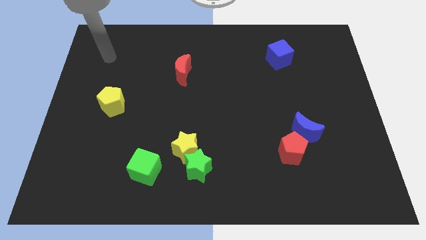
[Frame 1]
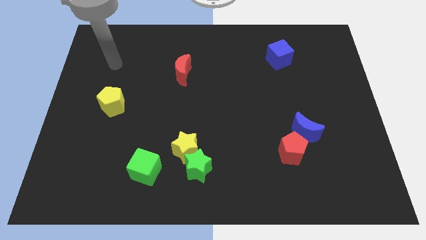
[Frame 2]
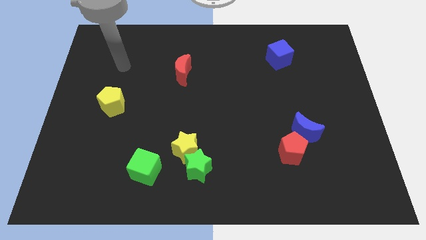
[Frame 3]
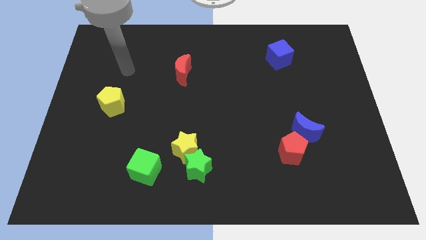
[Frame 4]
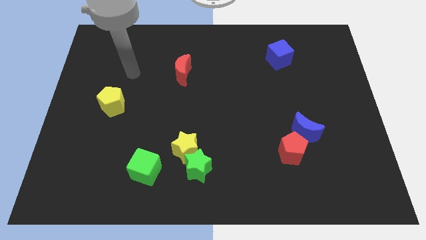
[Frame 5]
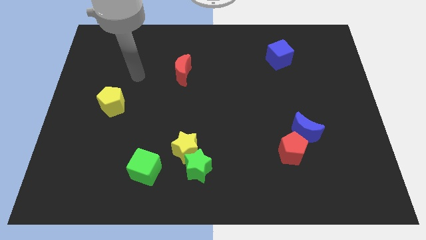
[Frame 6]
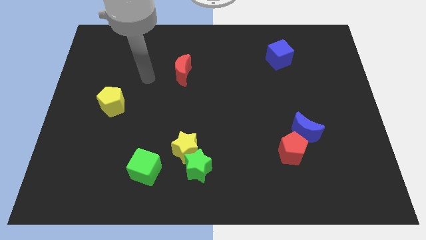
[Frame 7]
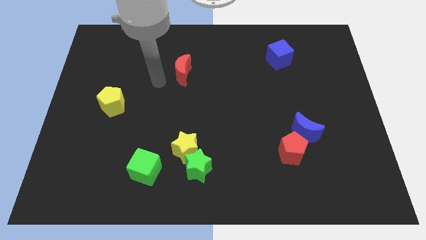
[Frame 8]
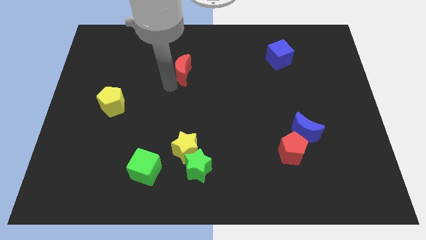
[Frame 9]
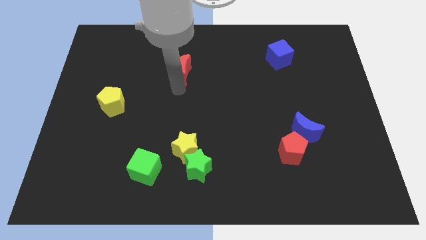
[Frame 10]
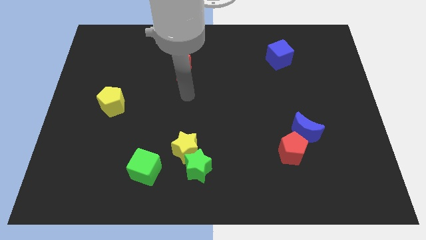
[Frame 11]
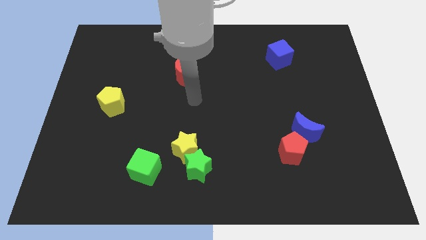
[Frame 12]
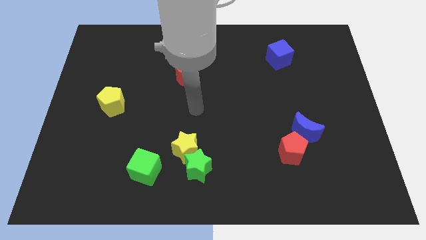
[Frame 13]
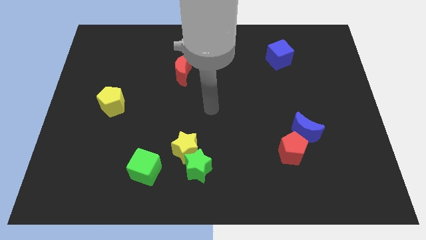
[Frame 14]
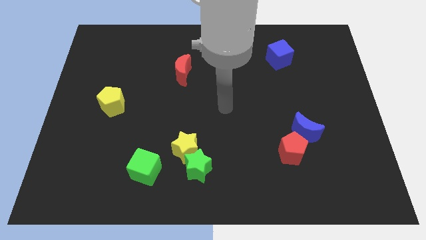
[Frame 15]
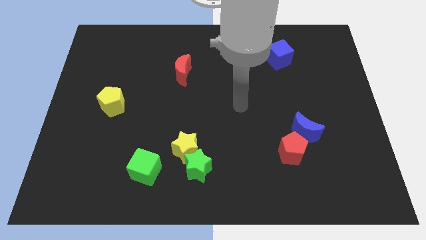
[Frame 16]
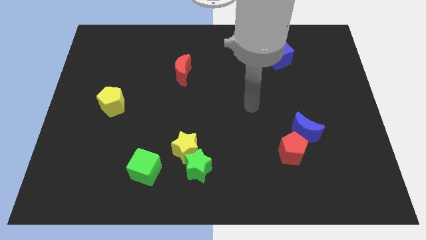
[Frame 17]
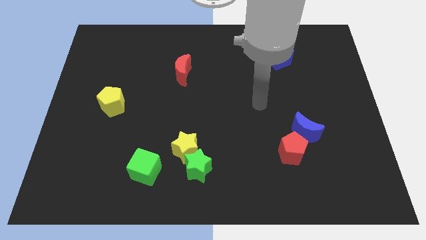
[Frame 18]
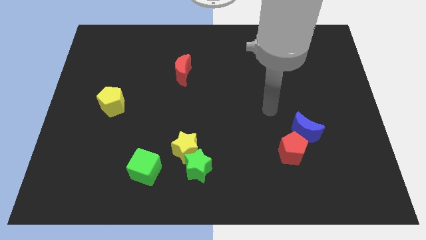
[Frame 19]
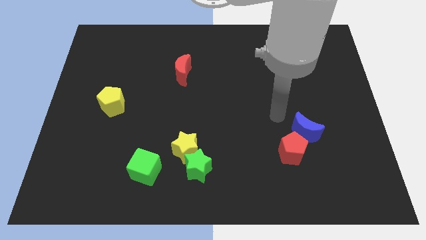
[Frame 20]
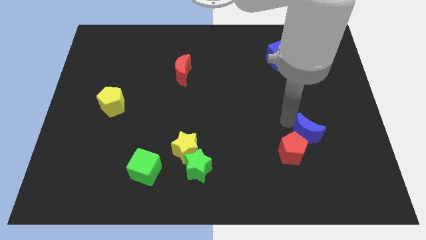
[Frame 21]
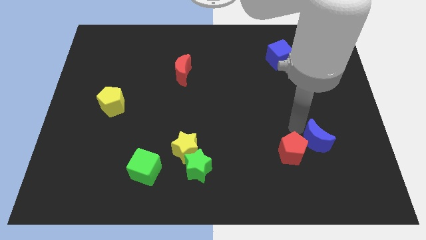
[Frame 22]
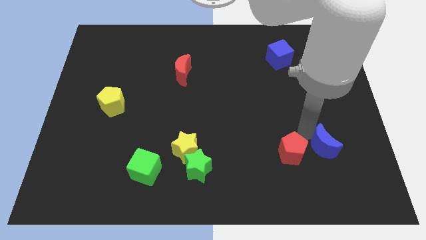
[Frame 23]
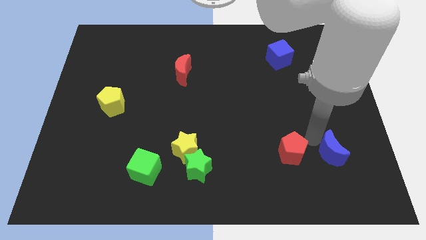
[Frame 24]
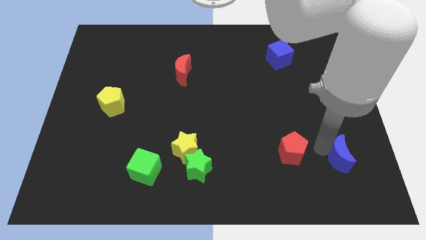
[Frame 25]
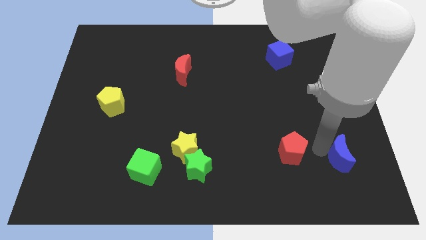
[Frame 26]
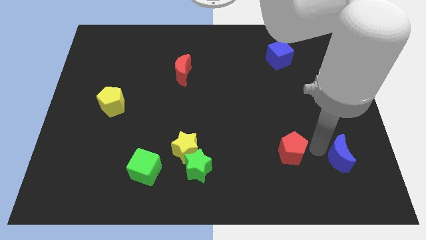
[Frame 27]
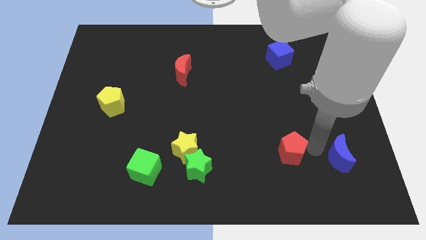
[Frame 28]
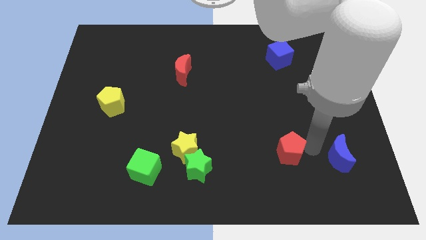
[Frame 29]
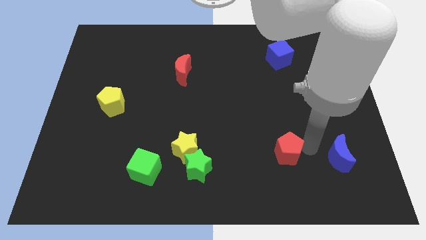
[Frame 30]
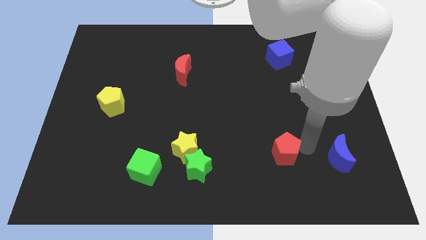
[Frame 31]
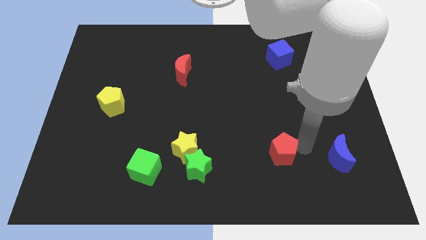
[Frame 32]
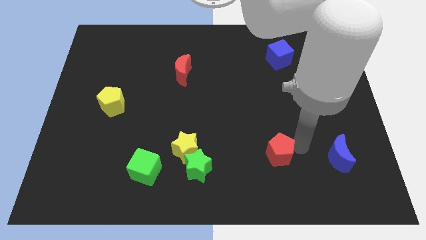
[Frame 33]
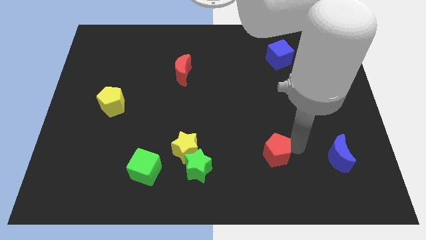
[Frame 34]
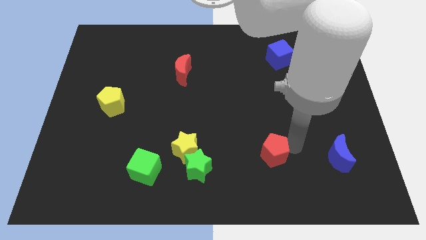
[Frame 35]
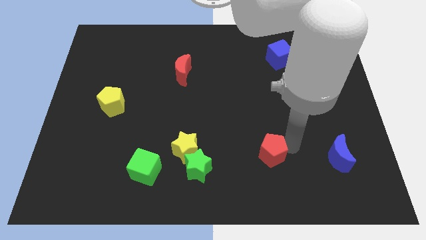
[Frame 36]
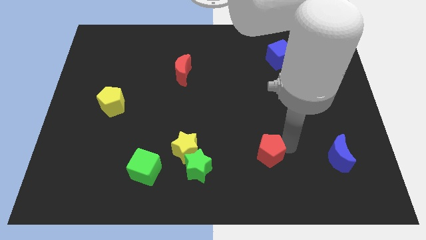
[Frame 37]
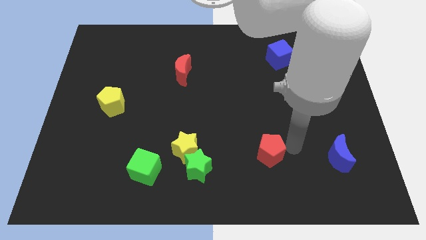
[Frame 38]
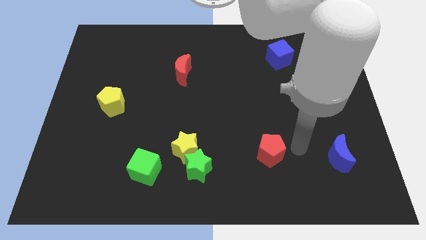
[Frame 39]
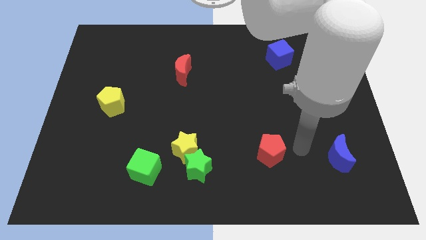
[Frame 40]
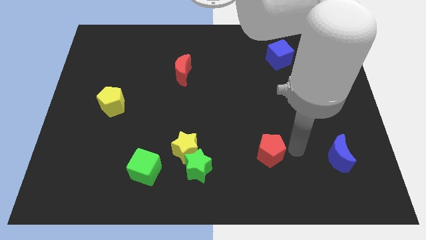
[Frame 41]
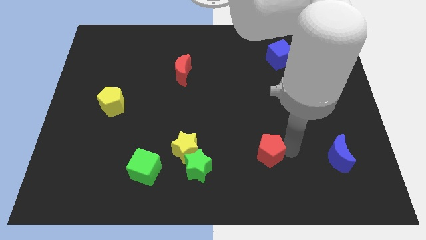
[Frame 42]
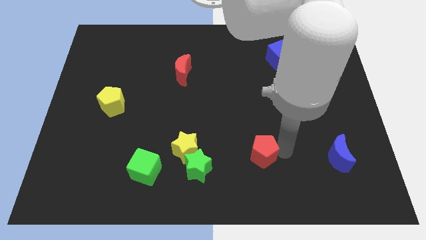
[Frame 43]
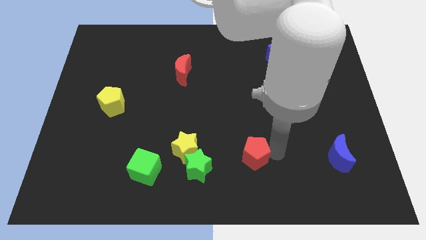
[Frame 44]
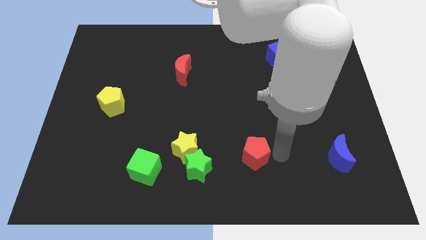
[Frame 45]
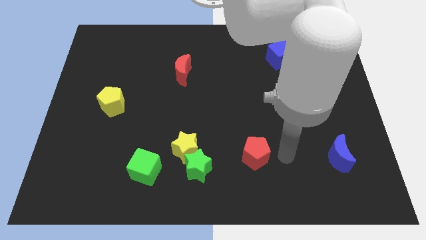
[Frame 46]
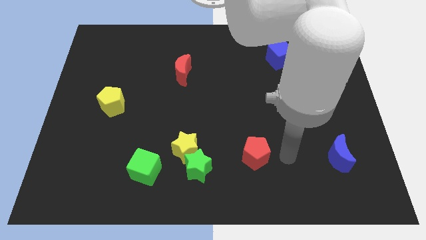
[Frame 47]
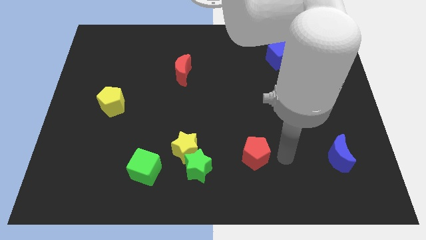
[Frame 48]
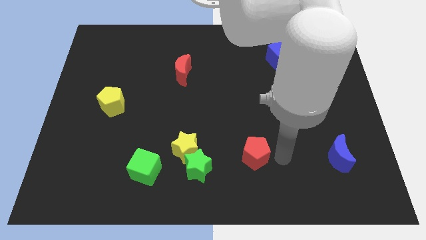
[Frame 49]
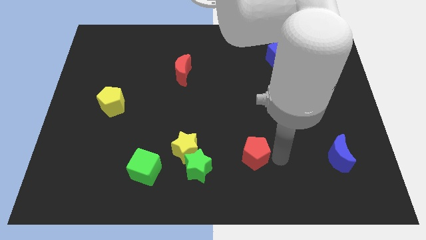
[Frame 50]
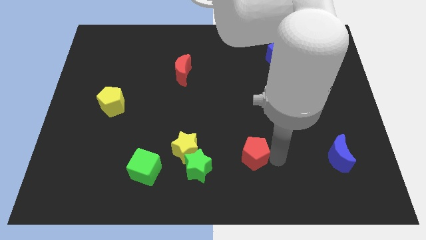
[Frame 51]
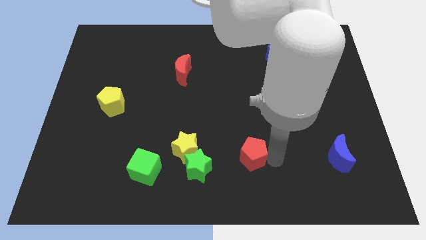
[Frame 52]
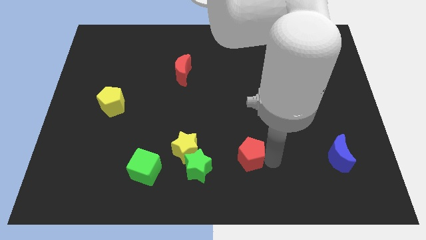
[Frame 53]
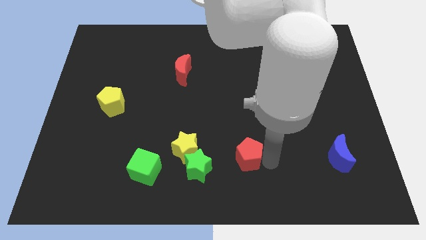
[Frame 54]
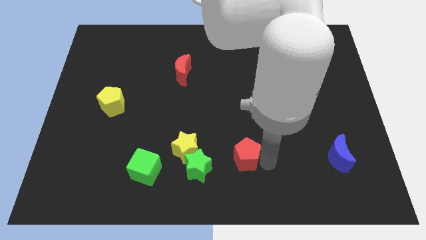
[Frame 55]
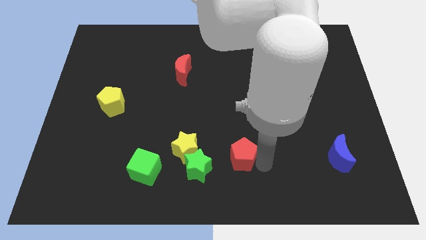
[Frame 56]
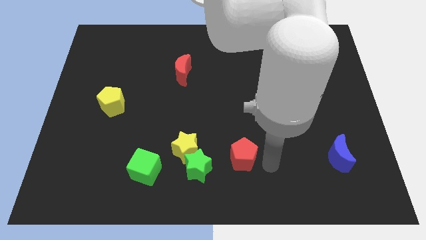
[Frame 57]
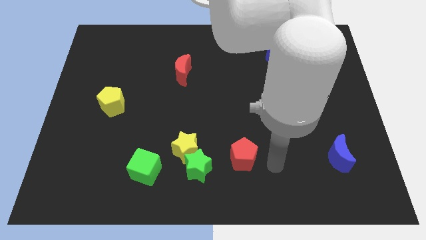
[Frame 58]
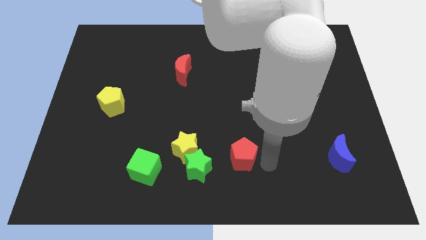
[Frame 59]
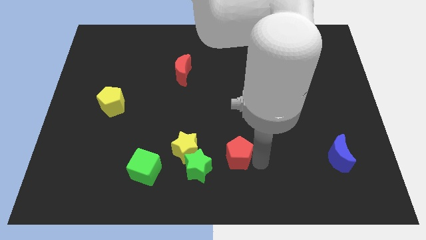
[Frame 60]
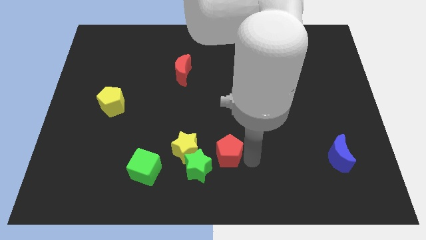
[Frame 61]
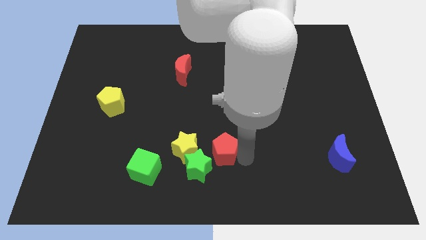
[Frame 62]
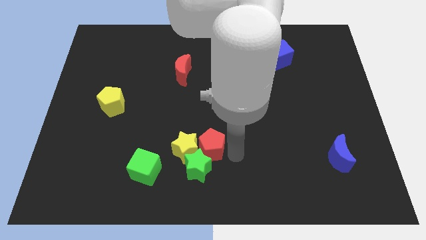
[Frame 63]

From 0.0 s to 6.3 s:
put the red pentagon close to the yellow star

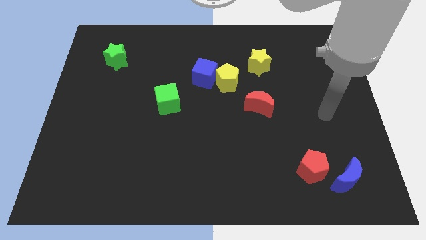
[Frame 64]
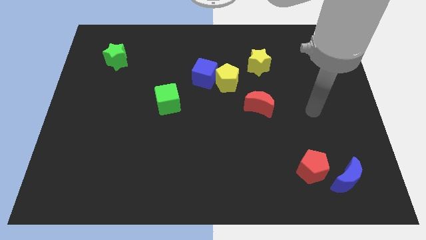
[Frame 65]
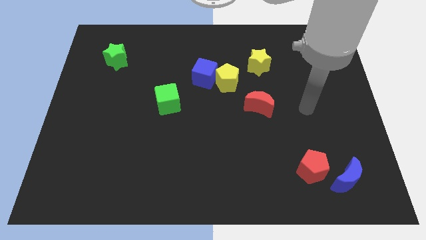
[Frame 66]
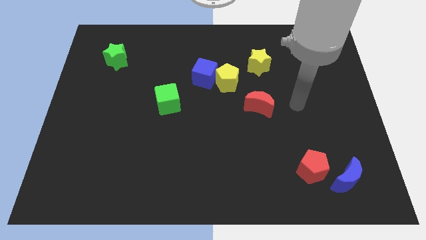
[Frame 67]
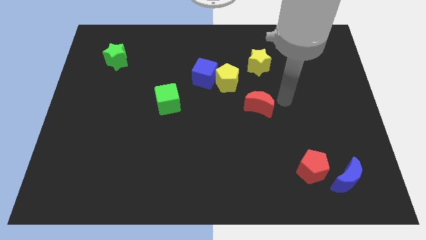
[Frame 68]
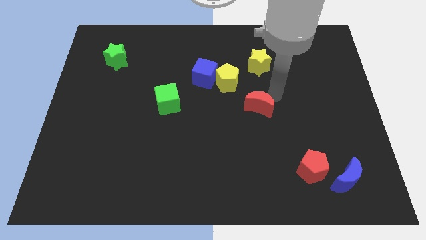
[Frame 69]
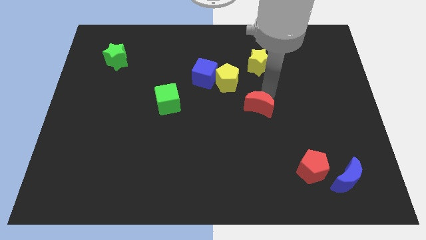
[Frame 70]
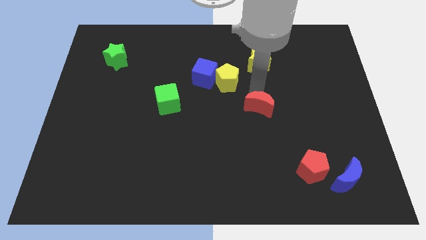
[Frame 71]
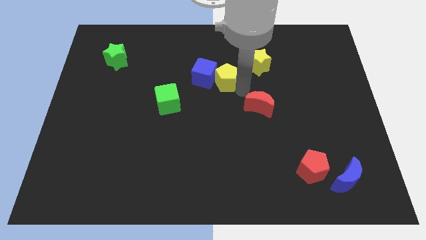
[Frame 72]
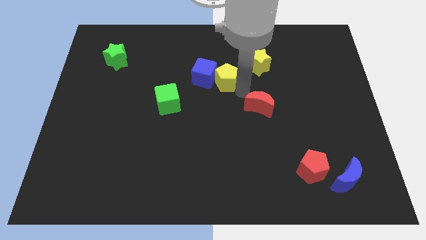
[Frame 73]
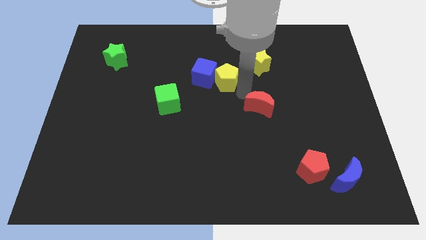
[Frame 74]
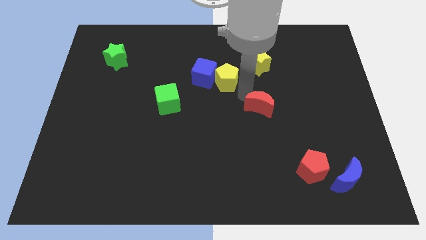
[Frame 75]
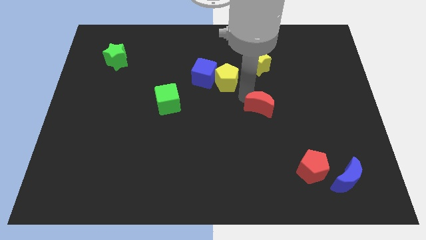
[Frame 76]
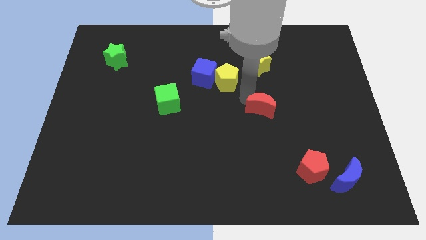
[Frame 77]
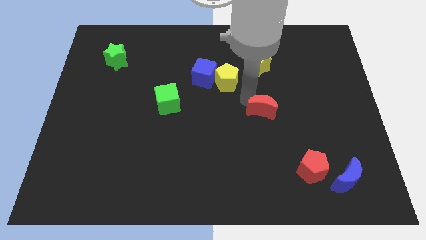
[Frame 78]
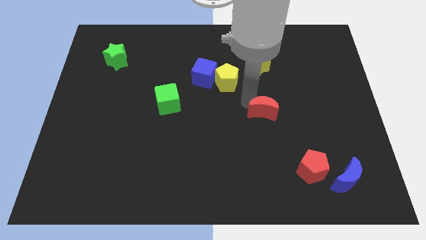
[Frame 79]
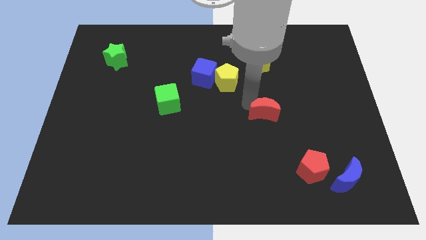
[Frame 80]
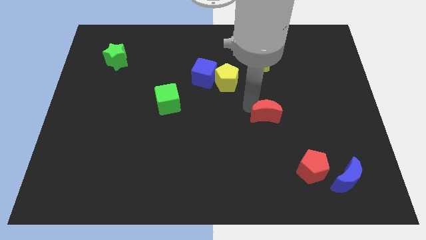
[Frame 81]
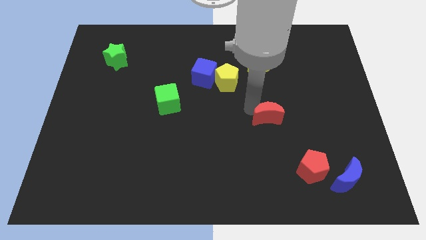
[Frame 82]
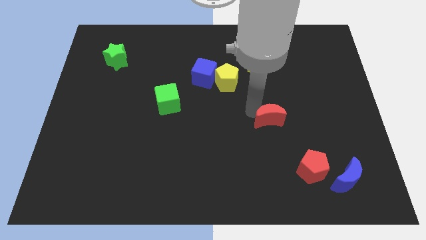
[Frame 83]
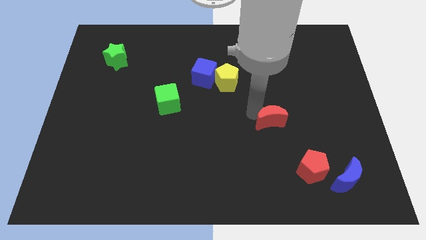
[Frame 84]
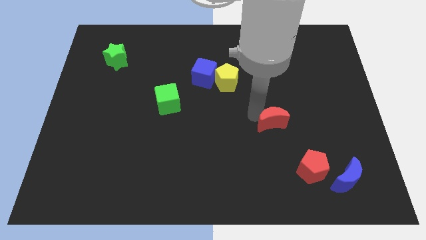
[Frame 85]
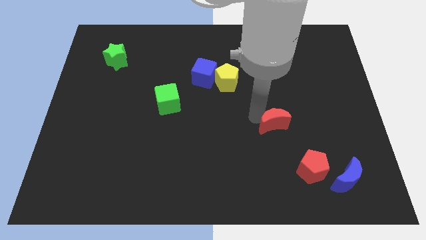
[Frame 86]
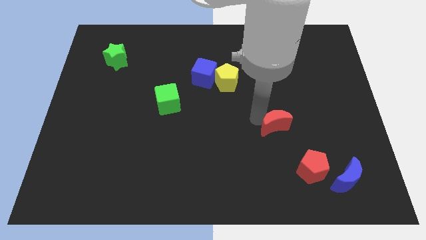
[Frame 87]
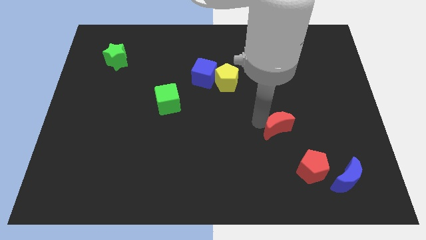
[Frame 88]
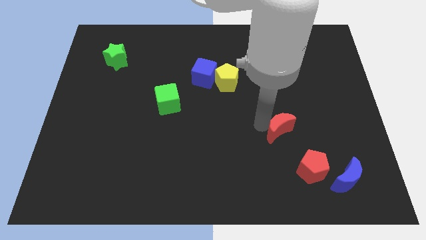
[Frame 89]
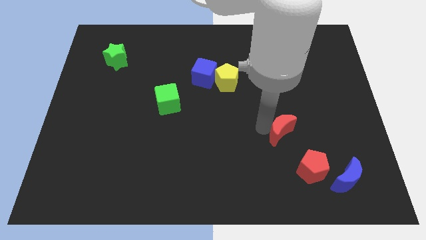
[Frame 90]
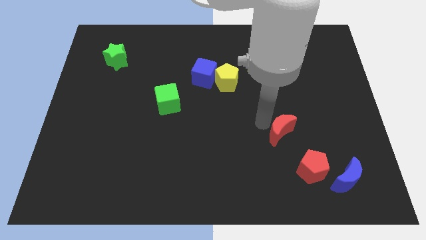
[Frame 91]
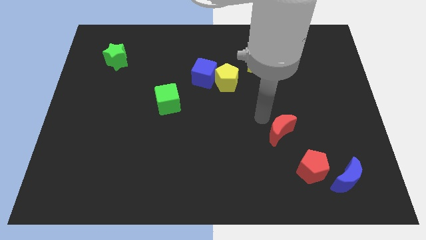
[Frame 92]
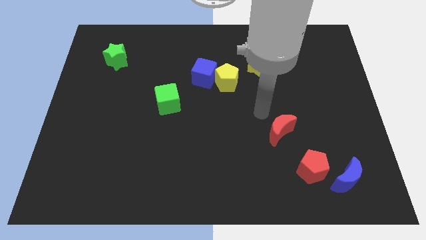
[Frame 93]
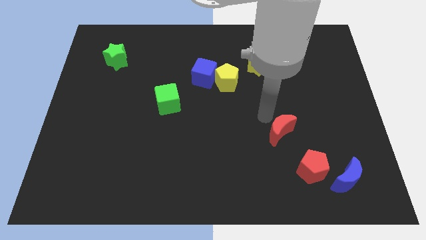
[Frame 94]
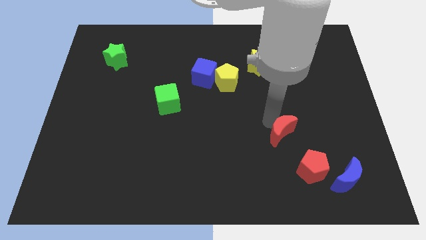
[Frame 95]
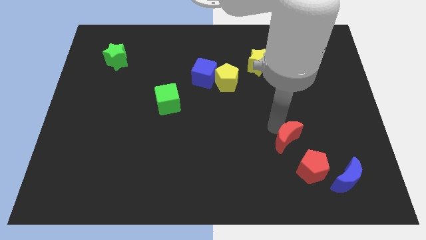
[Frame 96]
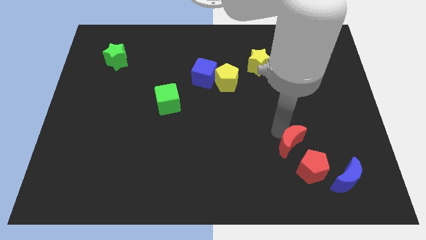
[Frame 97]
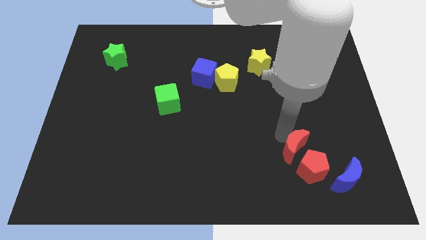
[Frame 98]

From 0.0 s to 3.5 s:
put the red moon next to the red pentagon
